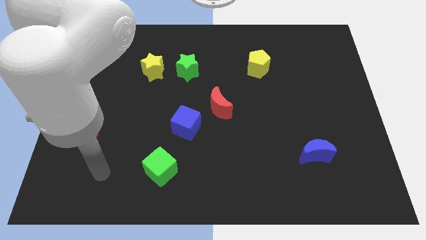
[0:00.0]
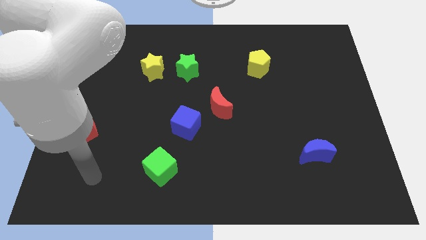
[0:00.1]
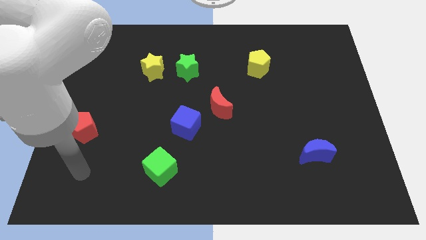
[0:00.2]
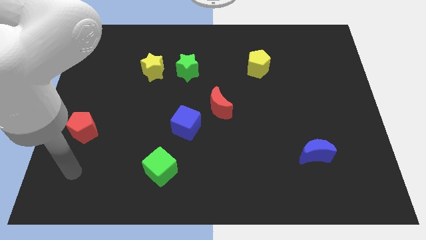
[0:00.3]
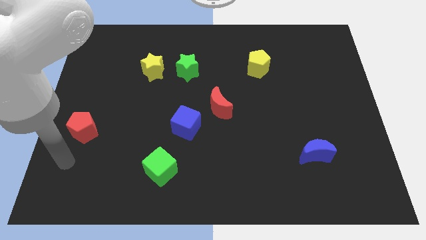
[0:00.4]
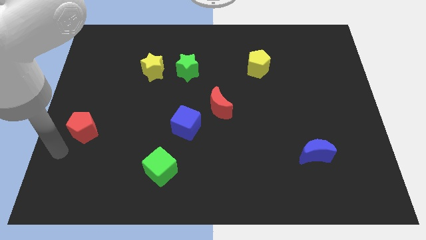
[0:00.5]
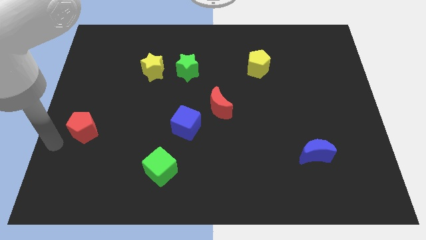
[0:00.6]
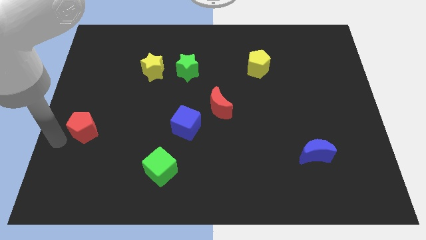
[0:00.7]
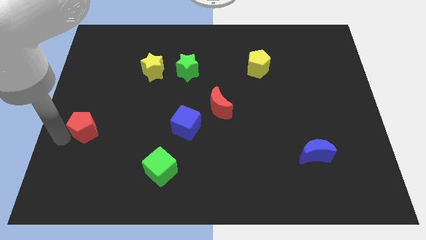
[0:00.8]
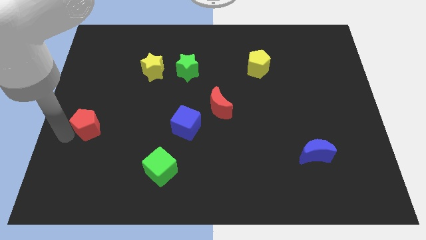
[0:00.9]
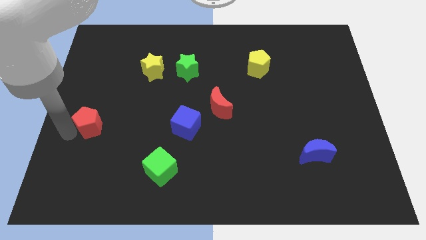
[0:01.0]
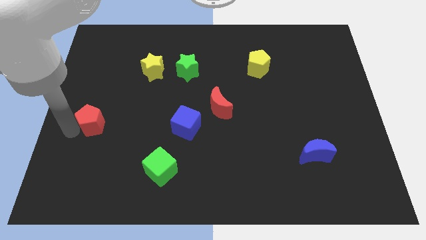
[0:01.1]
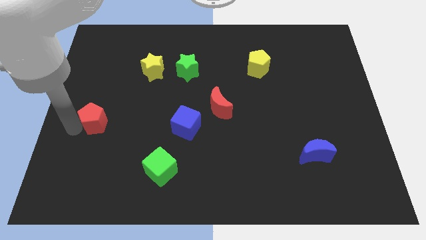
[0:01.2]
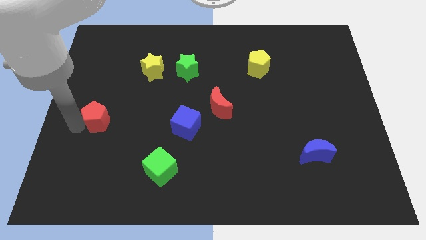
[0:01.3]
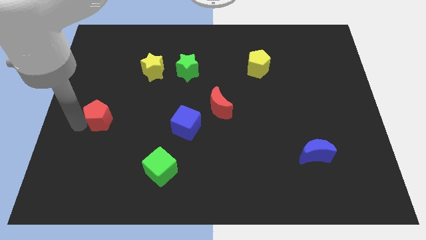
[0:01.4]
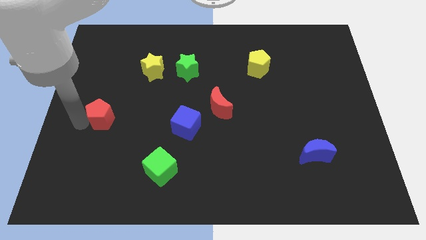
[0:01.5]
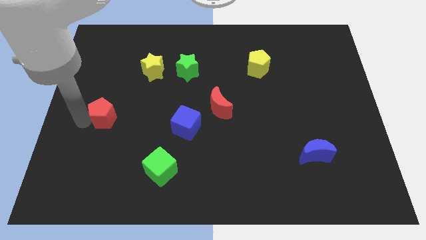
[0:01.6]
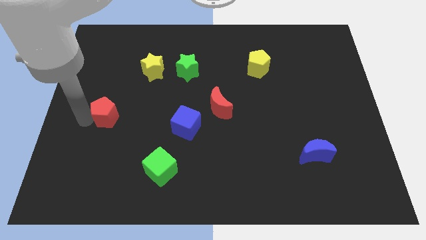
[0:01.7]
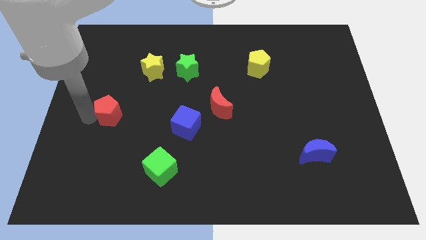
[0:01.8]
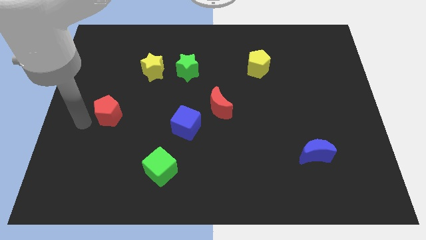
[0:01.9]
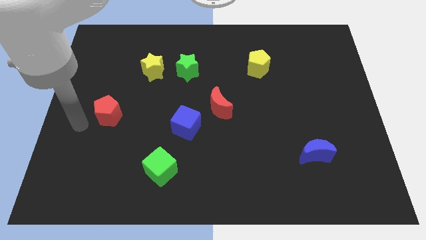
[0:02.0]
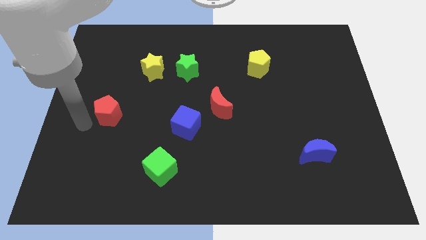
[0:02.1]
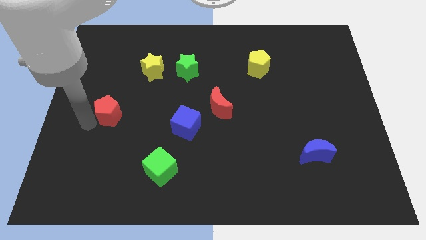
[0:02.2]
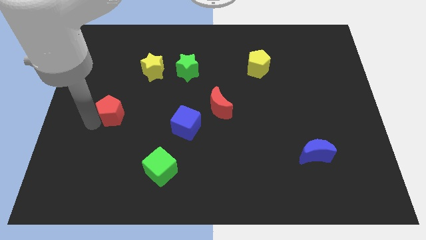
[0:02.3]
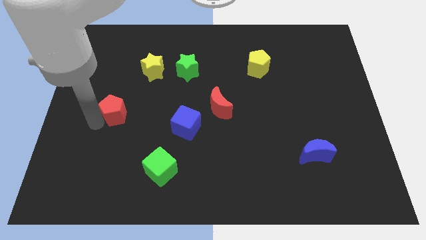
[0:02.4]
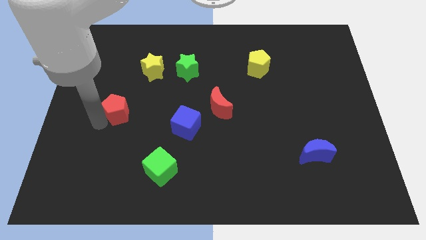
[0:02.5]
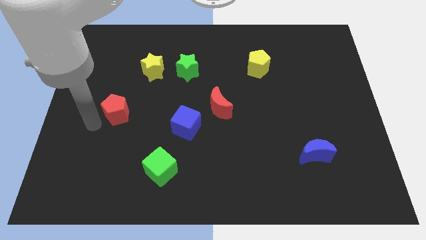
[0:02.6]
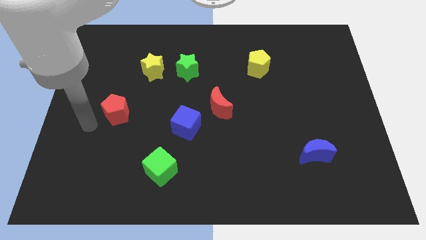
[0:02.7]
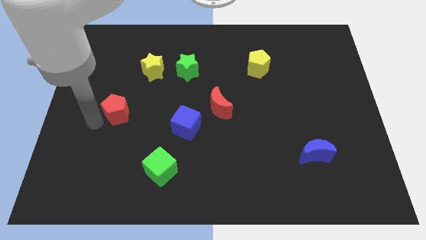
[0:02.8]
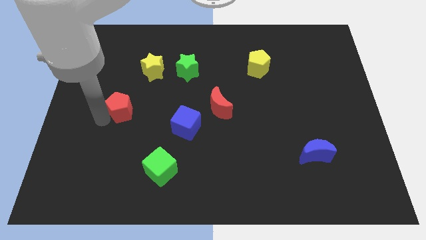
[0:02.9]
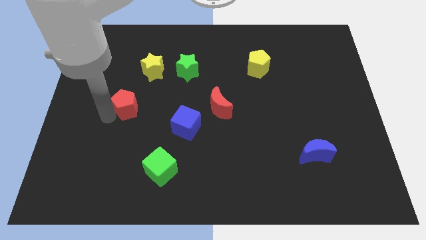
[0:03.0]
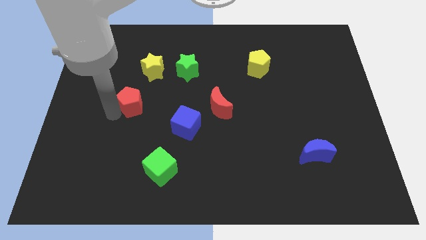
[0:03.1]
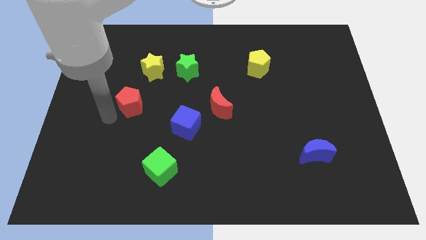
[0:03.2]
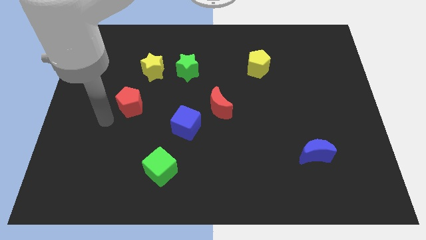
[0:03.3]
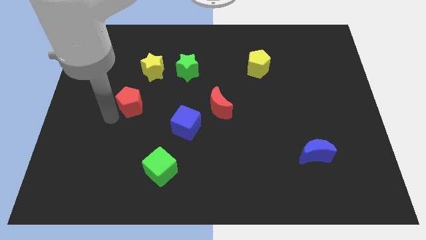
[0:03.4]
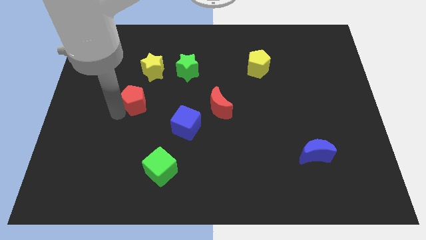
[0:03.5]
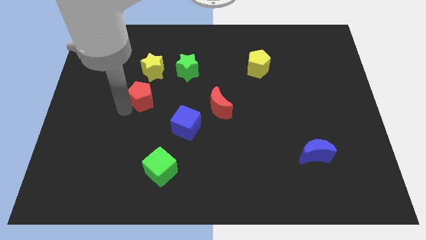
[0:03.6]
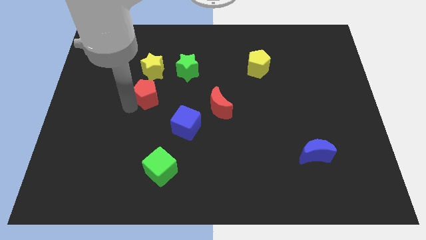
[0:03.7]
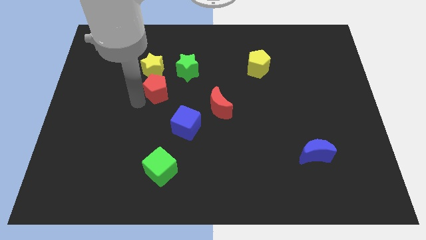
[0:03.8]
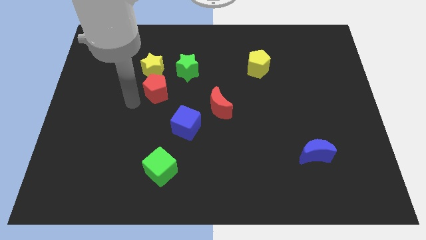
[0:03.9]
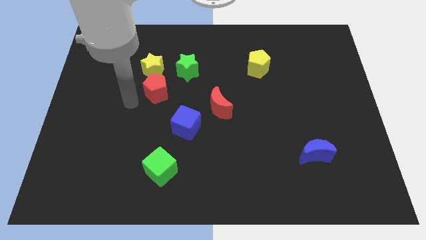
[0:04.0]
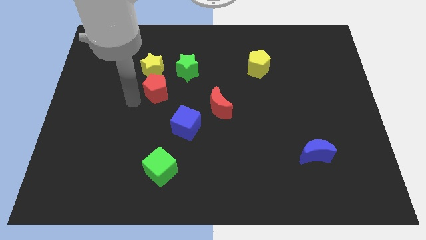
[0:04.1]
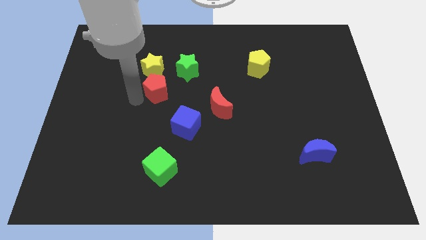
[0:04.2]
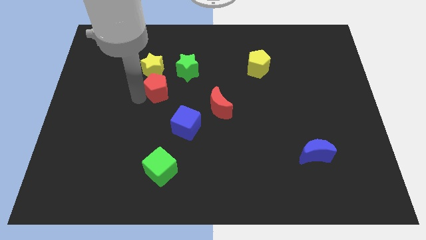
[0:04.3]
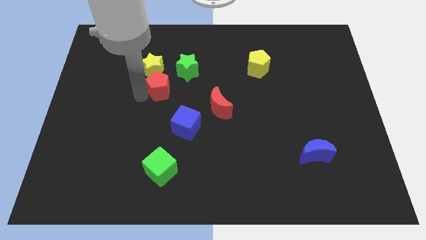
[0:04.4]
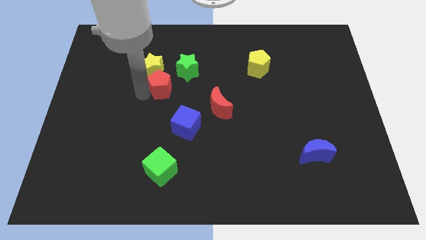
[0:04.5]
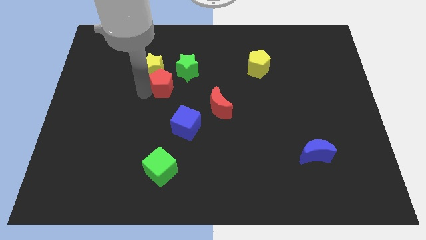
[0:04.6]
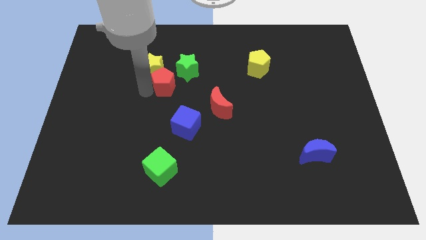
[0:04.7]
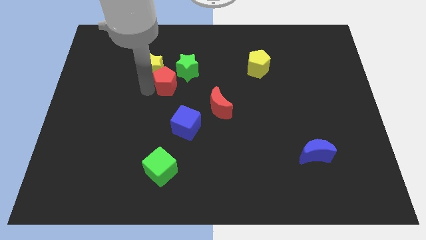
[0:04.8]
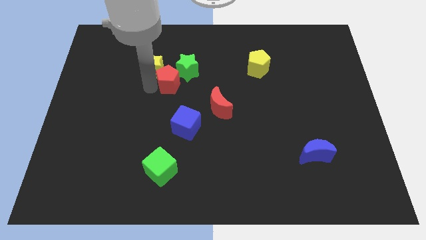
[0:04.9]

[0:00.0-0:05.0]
slide the red pentagon to the right of the yellow star

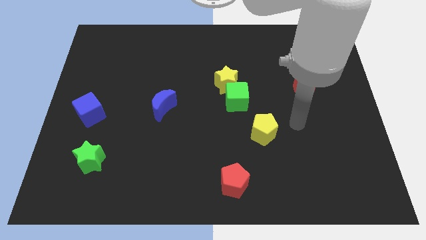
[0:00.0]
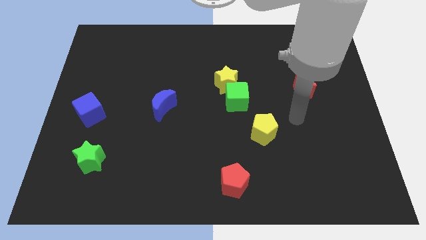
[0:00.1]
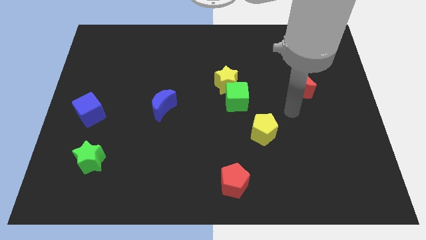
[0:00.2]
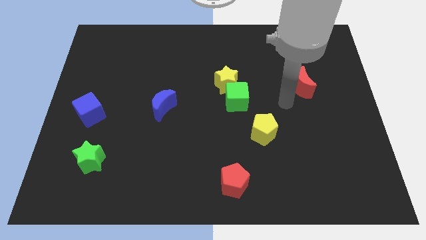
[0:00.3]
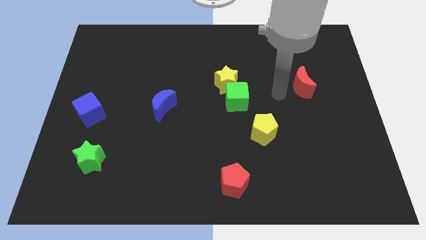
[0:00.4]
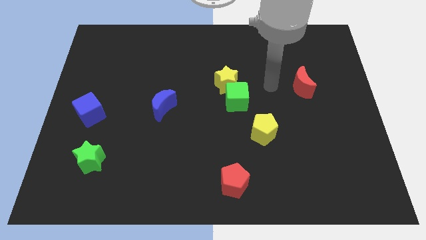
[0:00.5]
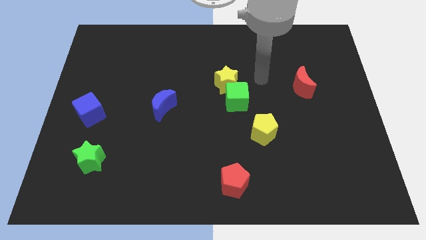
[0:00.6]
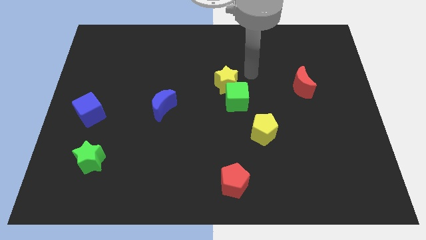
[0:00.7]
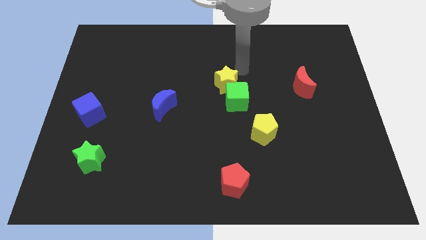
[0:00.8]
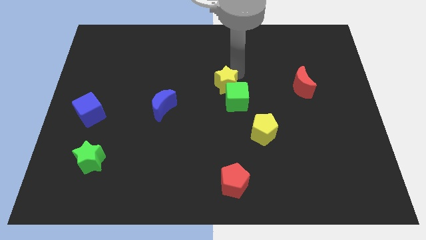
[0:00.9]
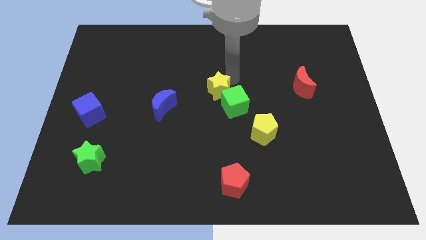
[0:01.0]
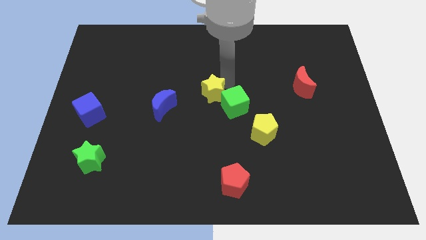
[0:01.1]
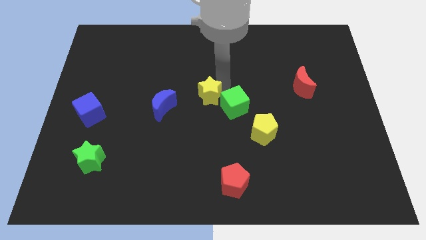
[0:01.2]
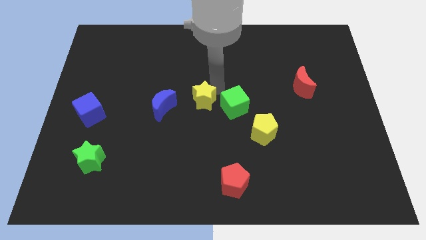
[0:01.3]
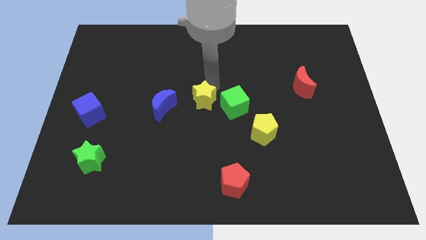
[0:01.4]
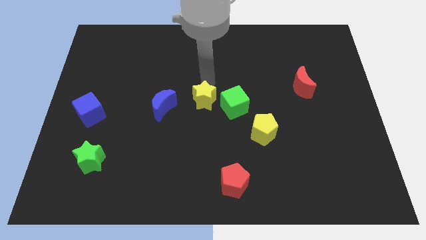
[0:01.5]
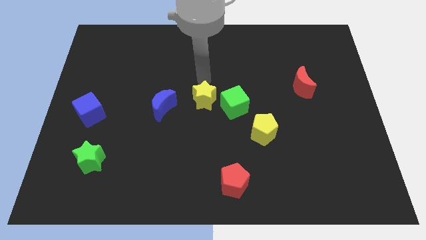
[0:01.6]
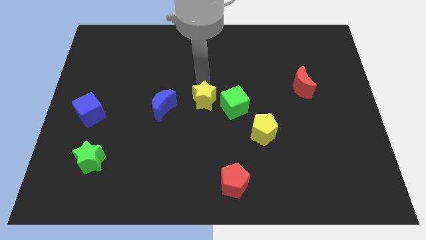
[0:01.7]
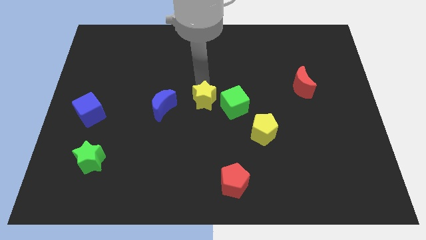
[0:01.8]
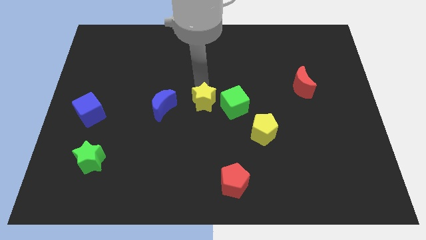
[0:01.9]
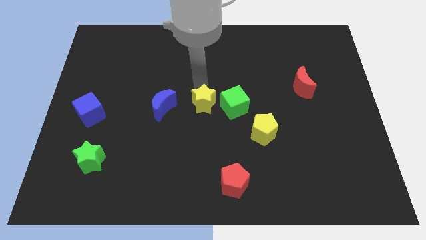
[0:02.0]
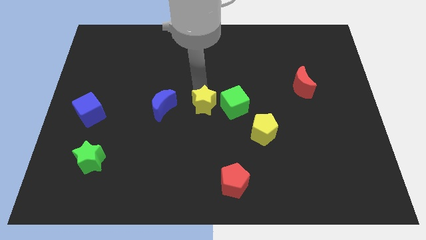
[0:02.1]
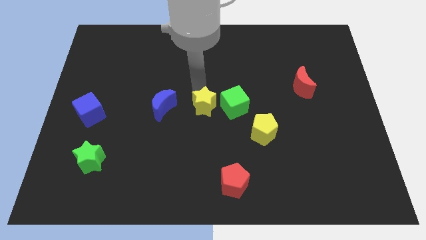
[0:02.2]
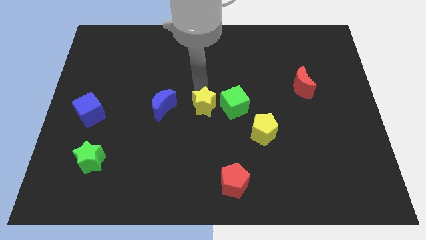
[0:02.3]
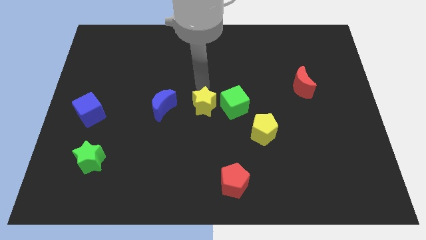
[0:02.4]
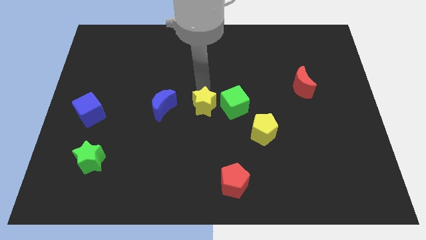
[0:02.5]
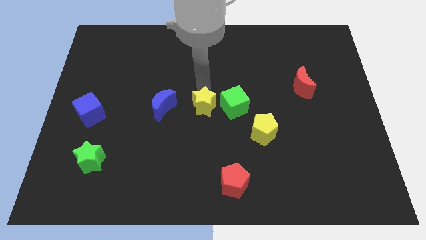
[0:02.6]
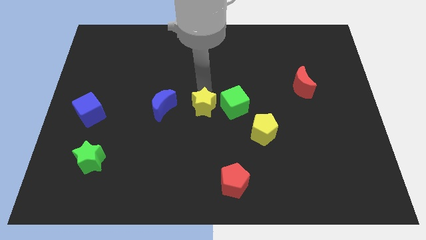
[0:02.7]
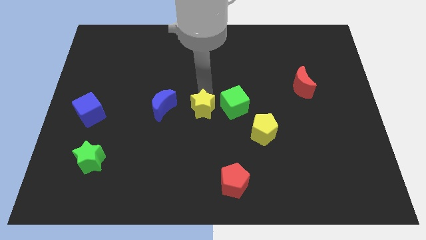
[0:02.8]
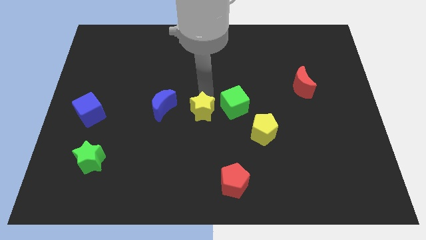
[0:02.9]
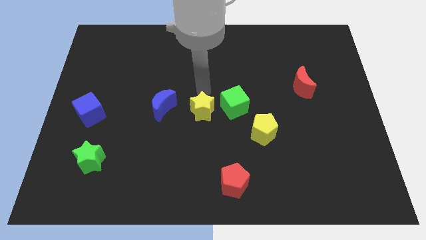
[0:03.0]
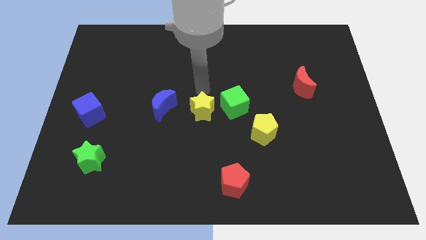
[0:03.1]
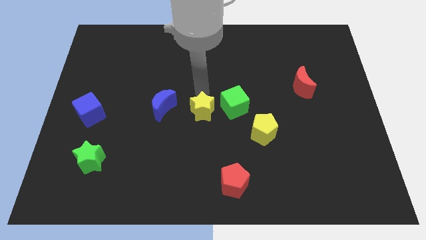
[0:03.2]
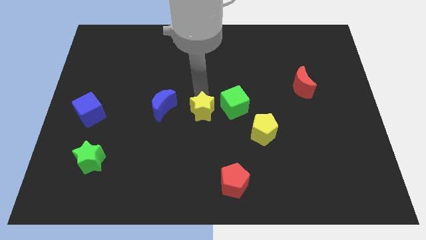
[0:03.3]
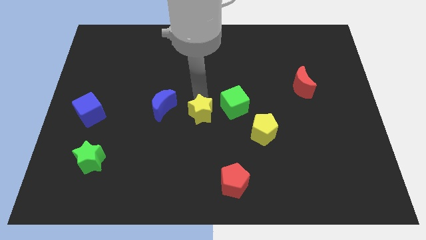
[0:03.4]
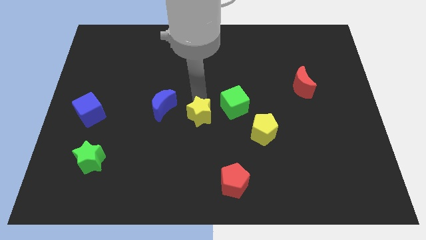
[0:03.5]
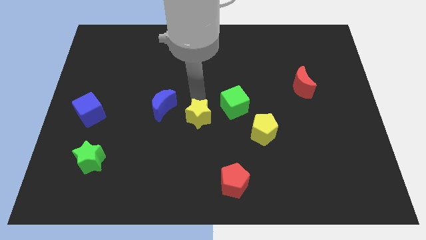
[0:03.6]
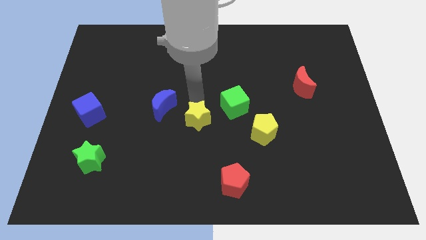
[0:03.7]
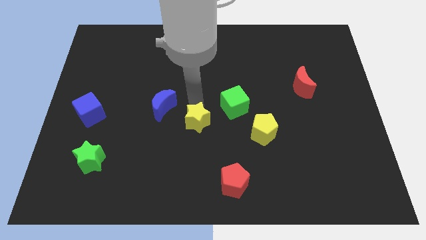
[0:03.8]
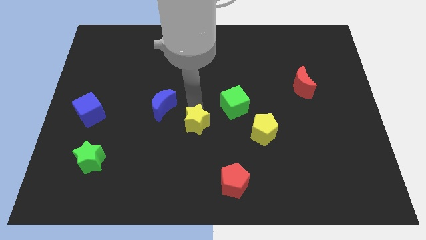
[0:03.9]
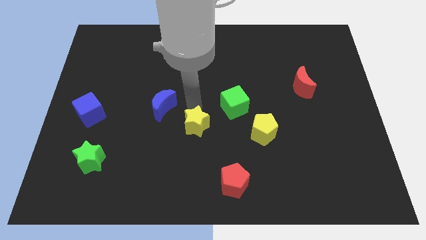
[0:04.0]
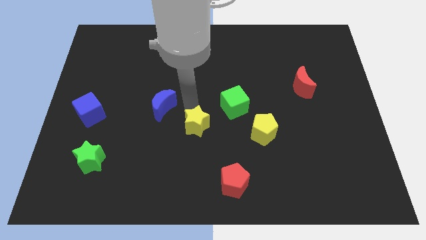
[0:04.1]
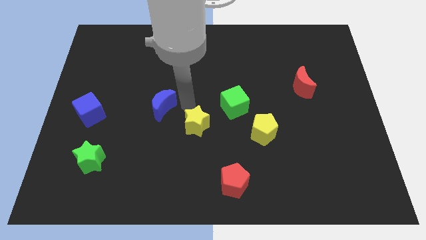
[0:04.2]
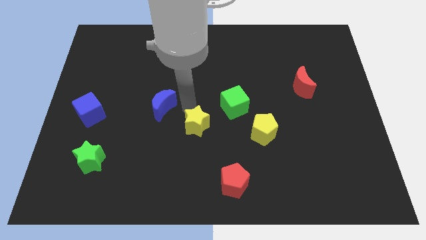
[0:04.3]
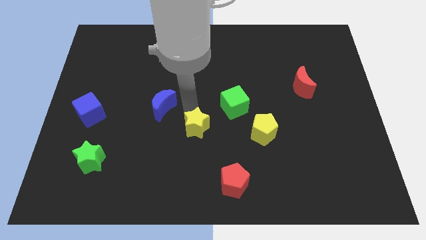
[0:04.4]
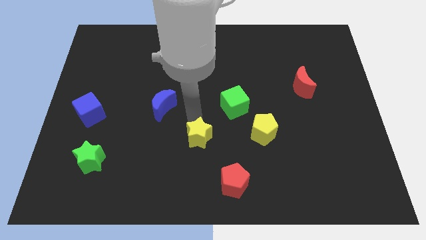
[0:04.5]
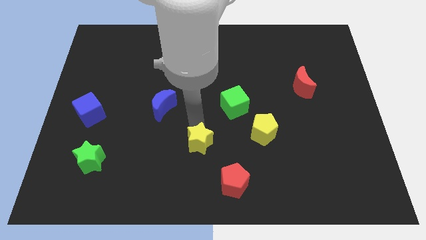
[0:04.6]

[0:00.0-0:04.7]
push the yellow star diagonally up and to the left of the red pentagon
